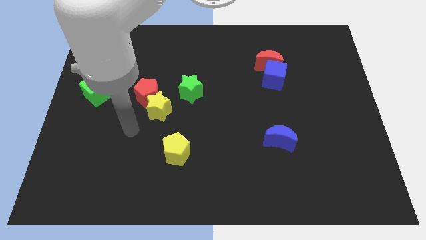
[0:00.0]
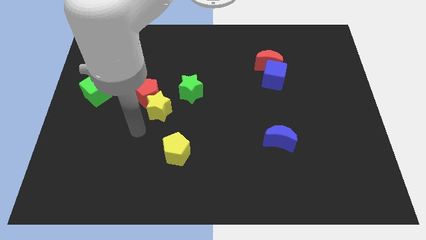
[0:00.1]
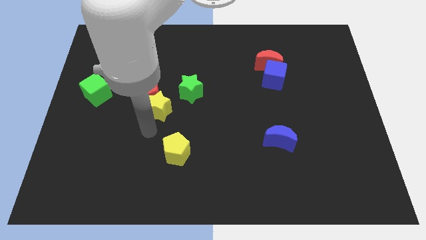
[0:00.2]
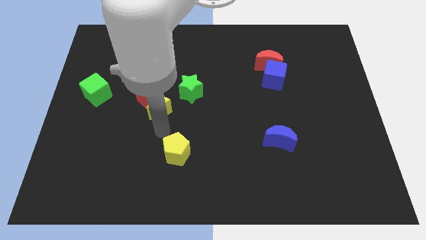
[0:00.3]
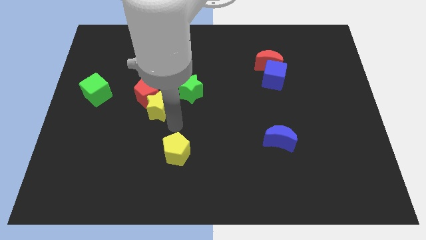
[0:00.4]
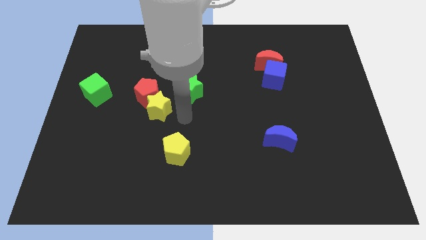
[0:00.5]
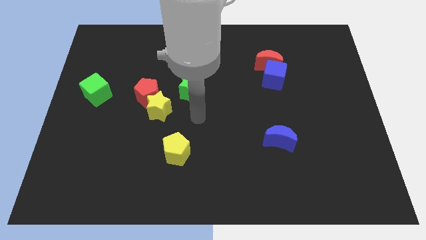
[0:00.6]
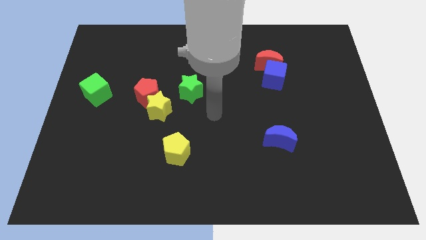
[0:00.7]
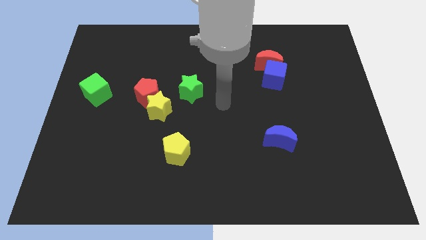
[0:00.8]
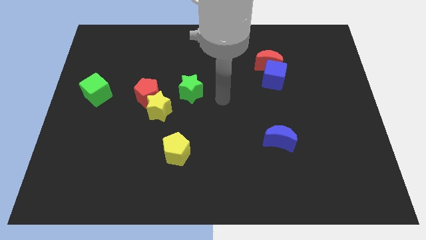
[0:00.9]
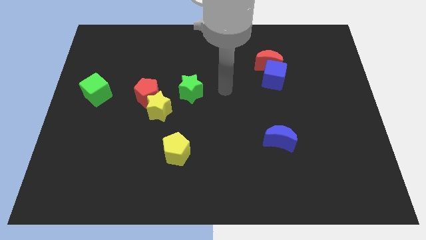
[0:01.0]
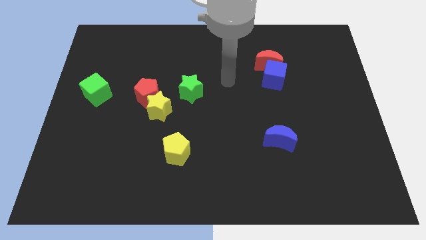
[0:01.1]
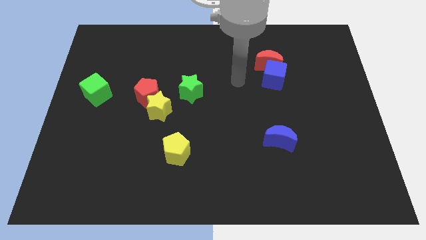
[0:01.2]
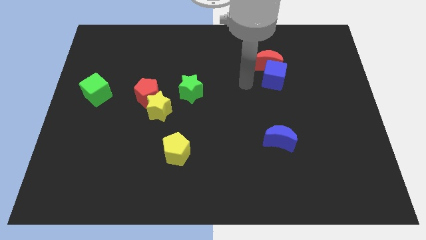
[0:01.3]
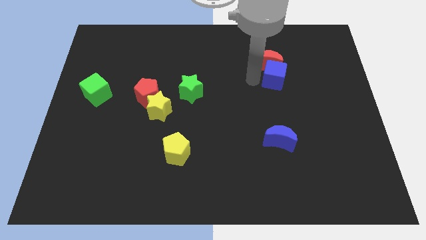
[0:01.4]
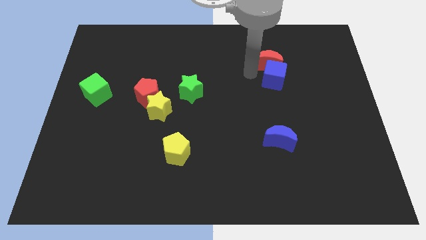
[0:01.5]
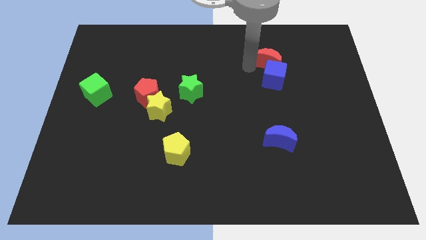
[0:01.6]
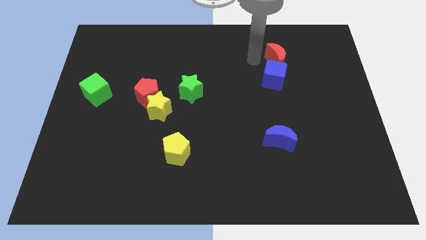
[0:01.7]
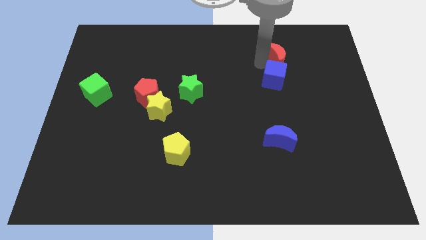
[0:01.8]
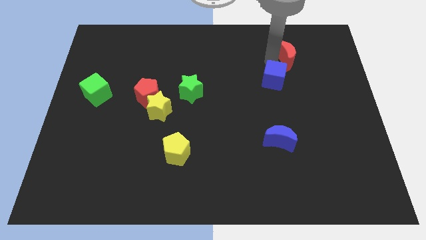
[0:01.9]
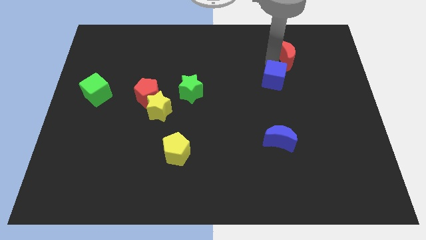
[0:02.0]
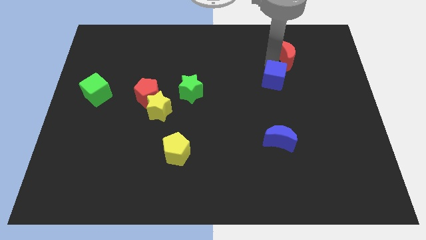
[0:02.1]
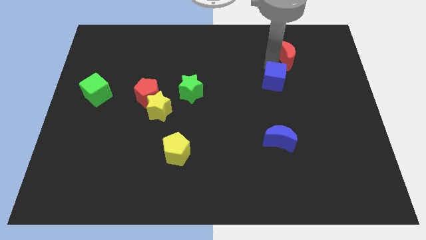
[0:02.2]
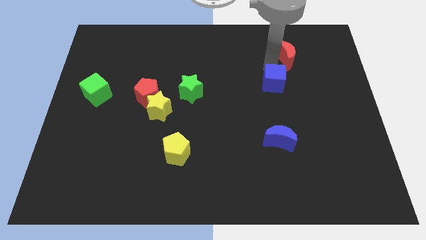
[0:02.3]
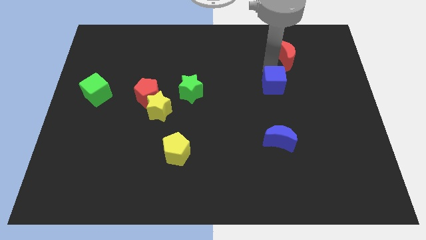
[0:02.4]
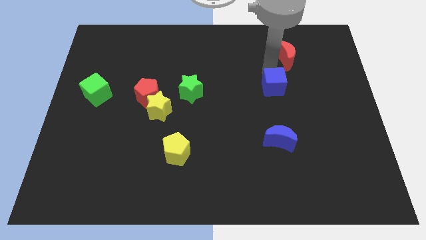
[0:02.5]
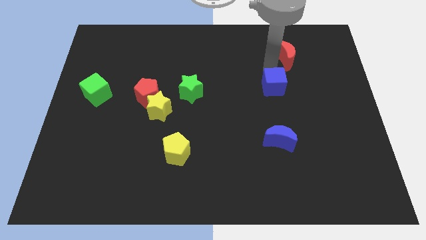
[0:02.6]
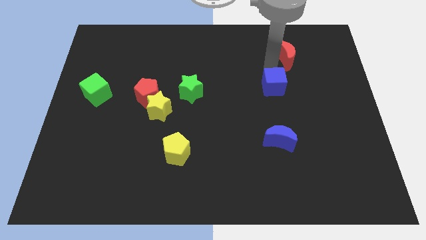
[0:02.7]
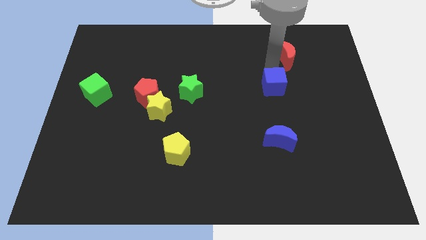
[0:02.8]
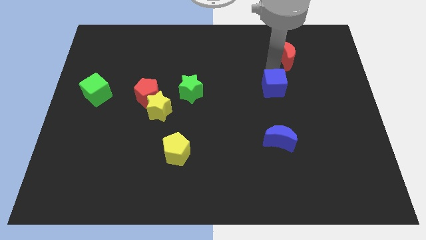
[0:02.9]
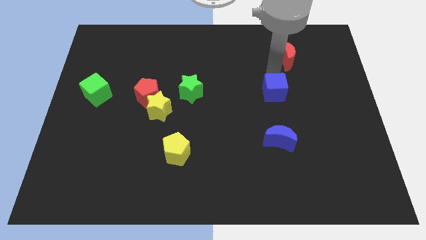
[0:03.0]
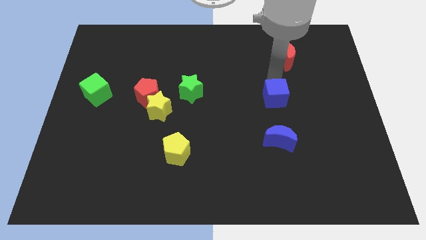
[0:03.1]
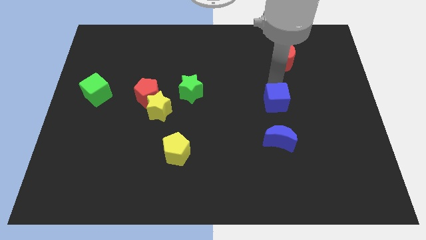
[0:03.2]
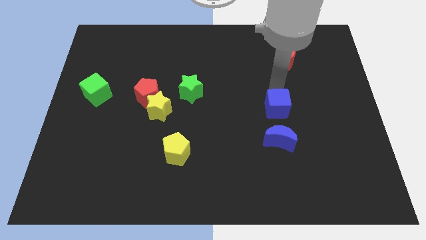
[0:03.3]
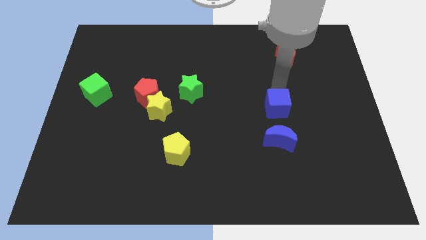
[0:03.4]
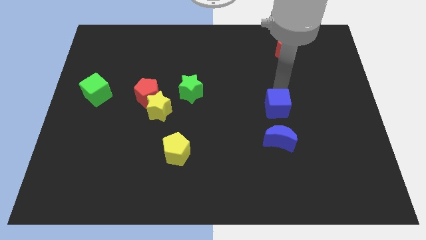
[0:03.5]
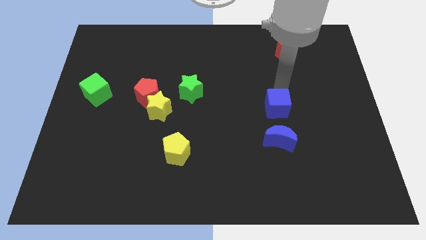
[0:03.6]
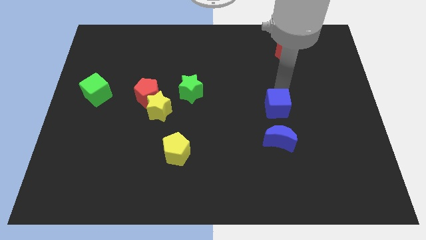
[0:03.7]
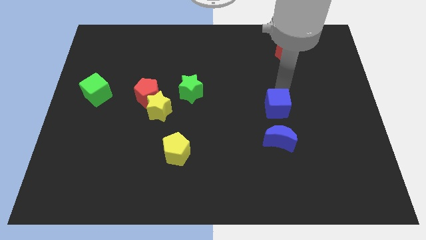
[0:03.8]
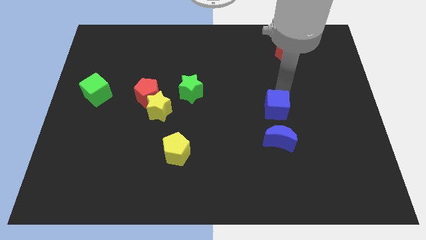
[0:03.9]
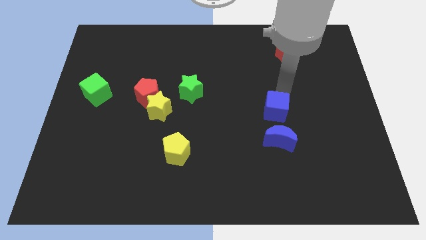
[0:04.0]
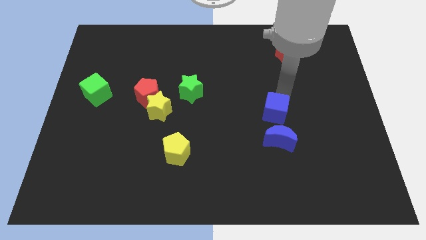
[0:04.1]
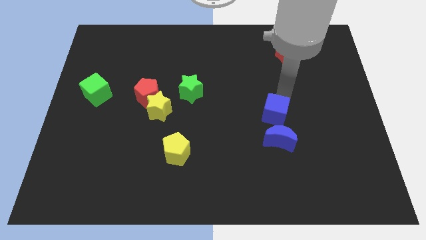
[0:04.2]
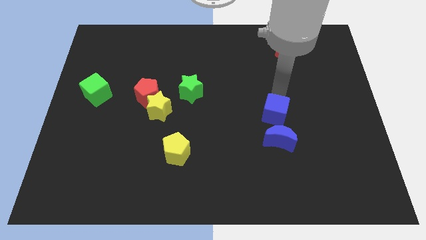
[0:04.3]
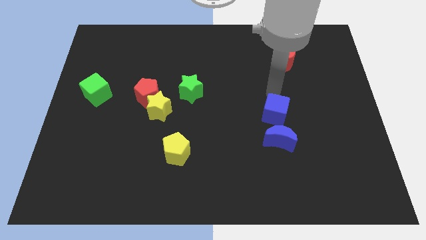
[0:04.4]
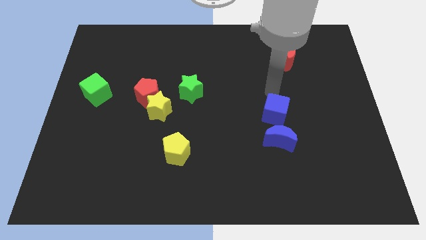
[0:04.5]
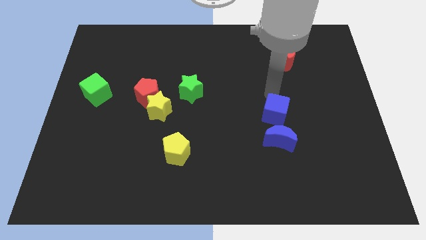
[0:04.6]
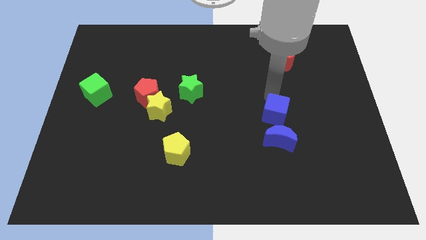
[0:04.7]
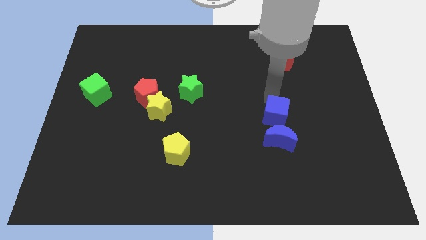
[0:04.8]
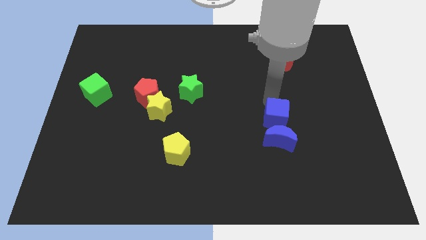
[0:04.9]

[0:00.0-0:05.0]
push the blue cube to the blue moon

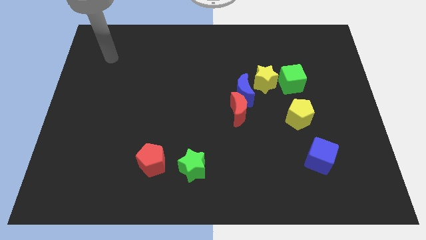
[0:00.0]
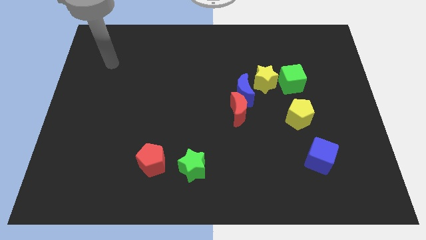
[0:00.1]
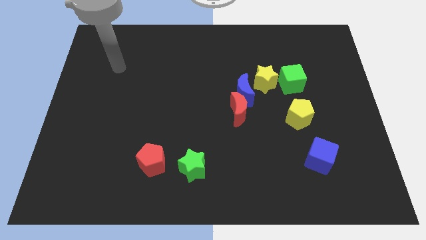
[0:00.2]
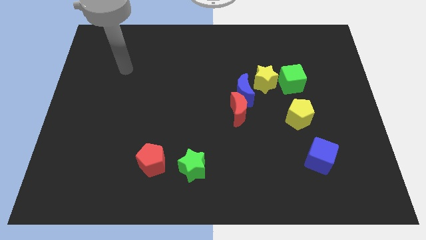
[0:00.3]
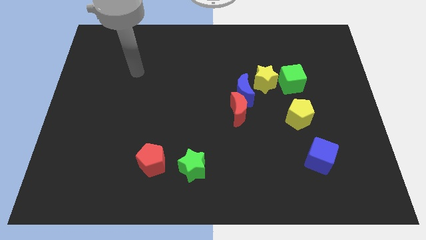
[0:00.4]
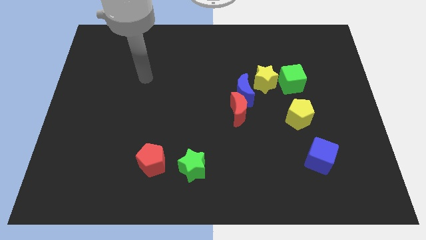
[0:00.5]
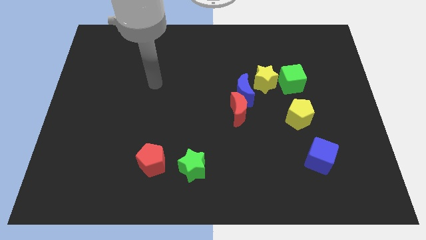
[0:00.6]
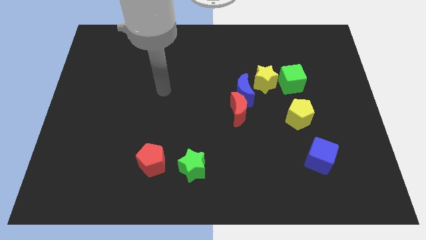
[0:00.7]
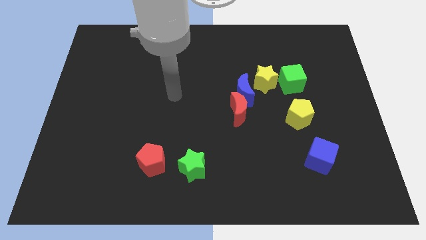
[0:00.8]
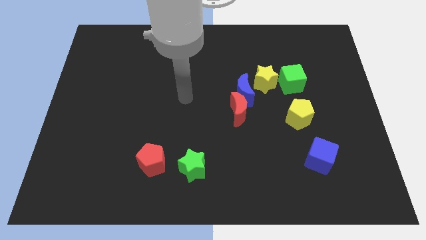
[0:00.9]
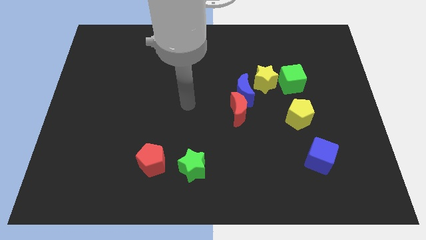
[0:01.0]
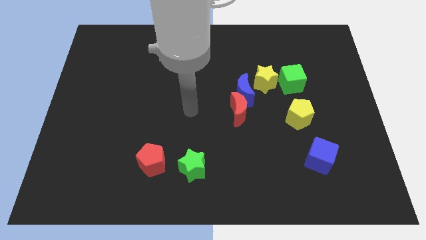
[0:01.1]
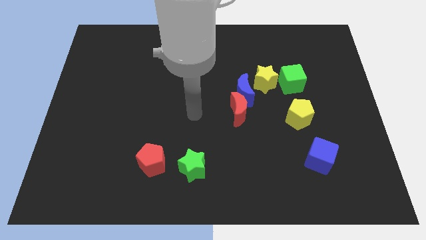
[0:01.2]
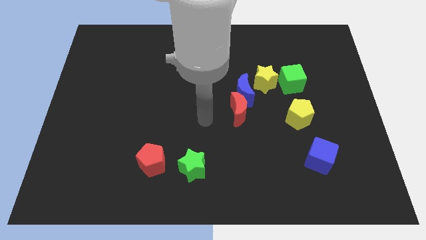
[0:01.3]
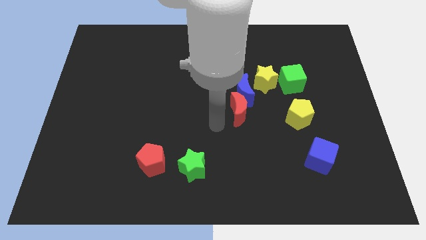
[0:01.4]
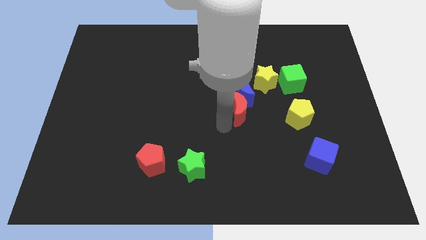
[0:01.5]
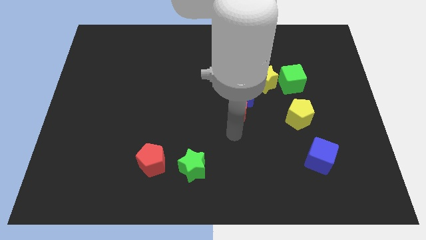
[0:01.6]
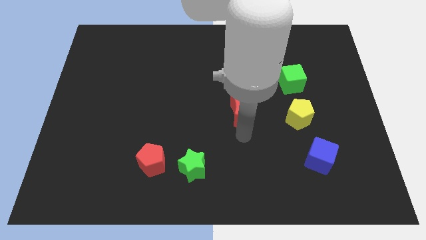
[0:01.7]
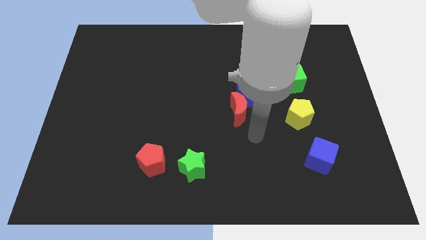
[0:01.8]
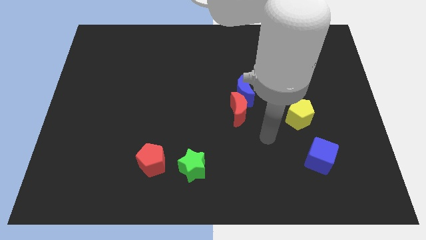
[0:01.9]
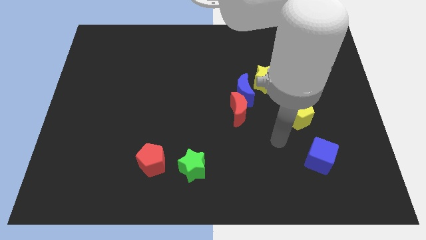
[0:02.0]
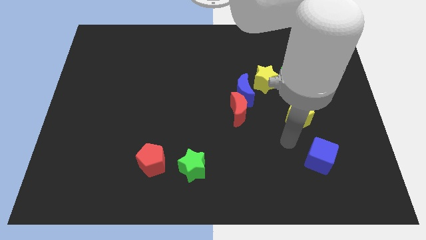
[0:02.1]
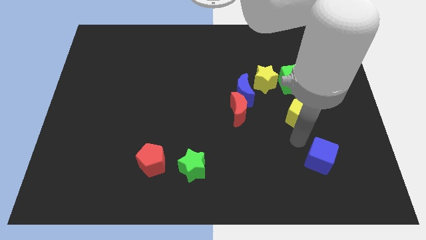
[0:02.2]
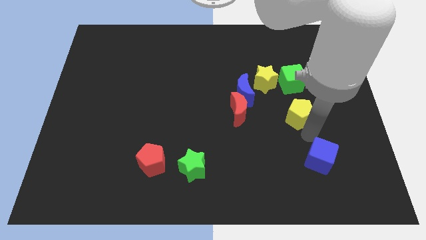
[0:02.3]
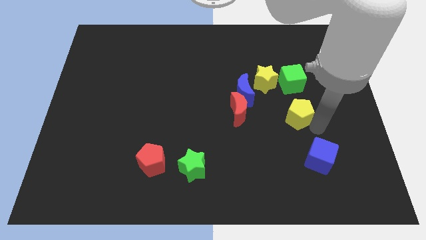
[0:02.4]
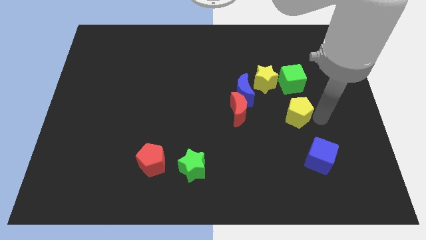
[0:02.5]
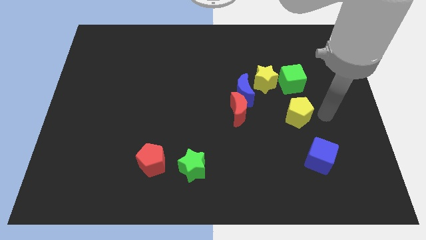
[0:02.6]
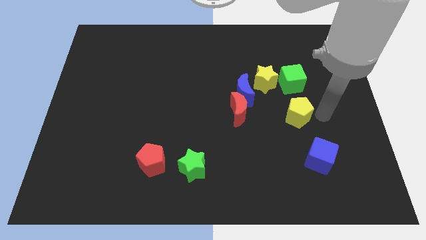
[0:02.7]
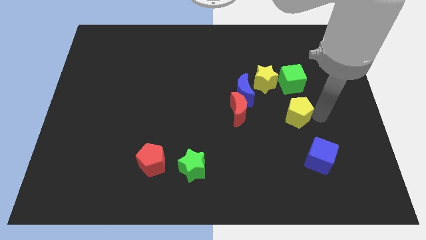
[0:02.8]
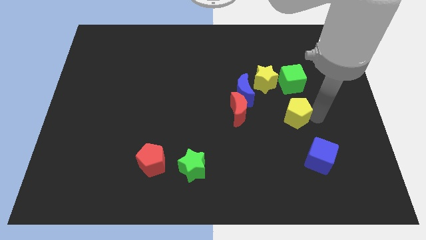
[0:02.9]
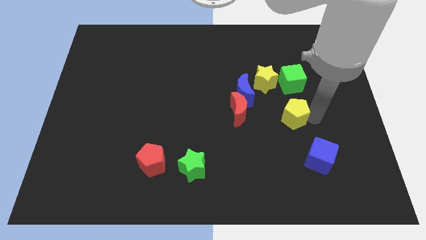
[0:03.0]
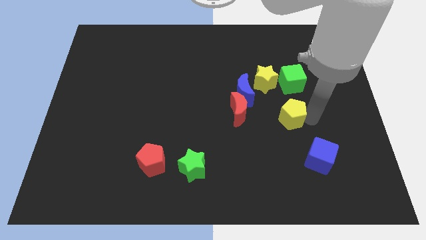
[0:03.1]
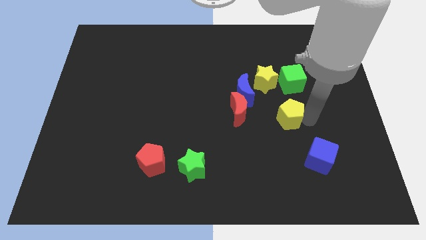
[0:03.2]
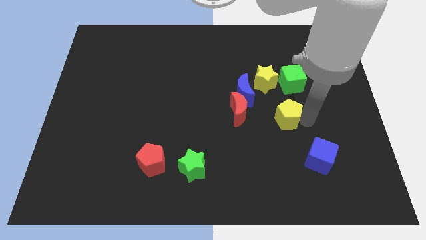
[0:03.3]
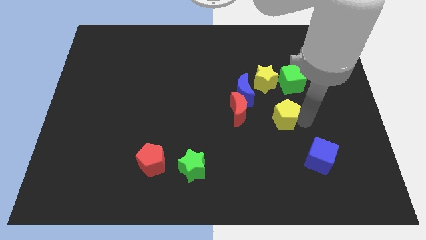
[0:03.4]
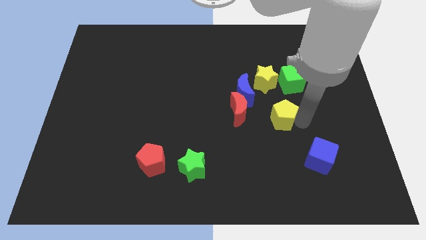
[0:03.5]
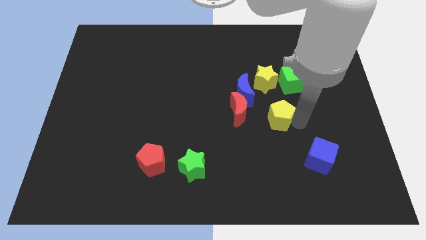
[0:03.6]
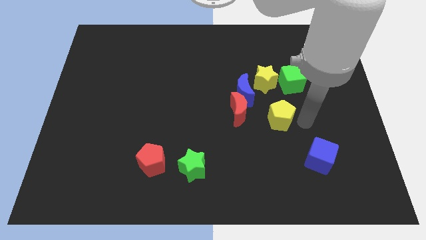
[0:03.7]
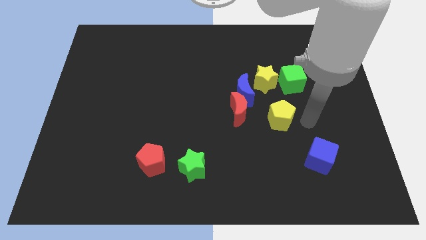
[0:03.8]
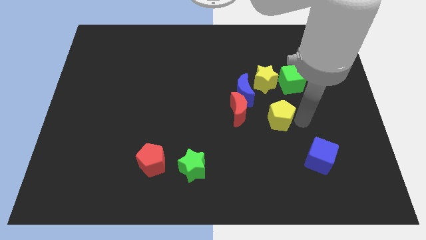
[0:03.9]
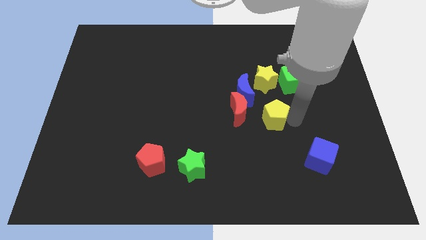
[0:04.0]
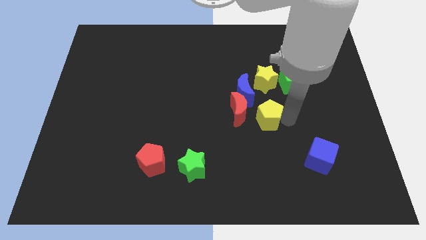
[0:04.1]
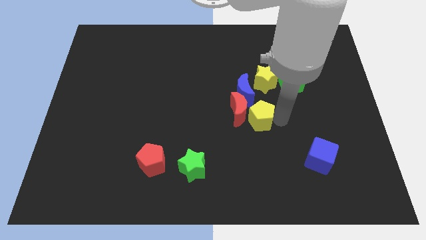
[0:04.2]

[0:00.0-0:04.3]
push the yellow pentagon to the red moon
